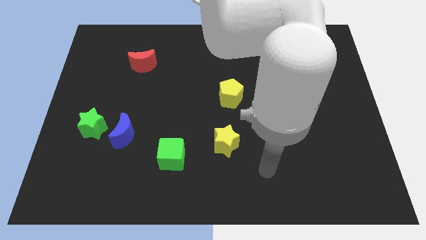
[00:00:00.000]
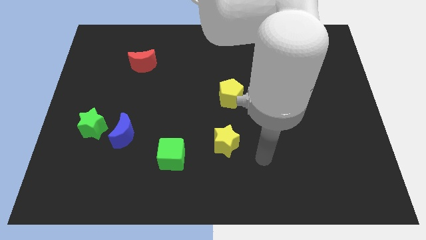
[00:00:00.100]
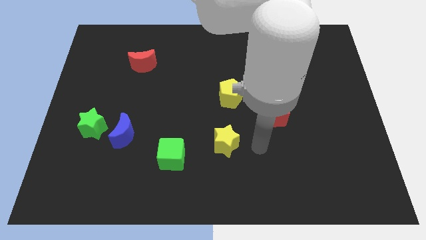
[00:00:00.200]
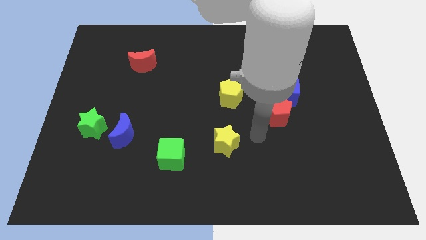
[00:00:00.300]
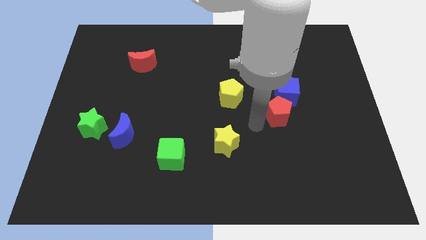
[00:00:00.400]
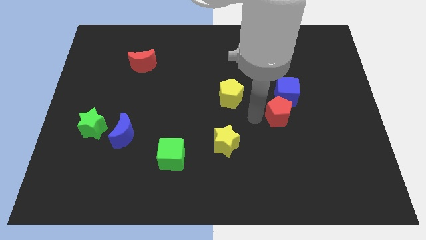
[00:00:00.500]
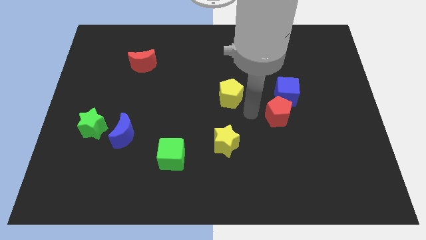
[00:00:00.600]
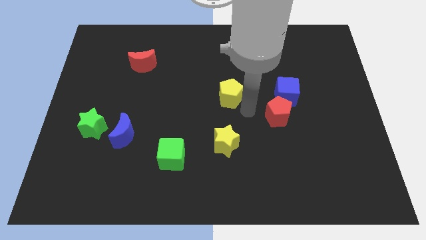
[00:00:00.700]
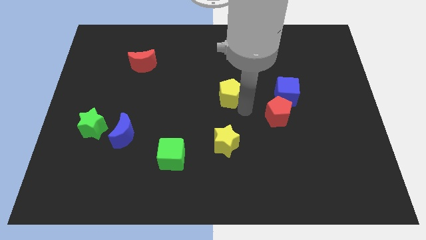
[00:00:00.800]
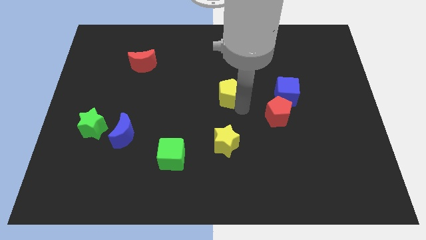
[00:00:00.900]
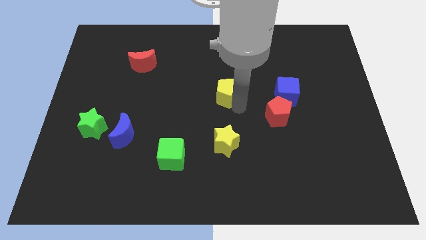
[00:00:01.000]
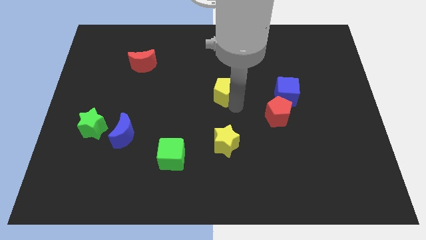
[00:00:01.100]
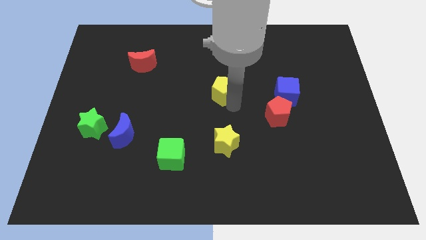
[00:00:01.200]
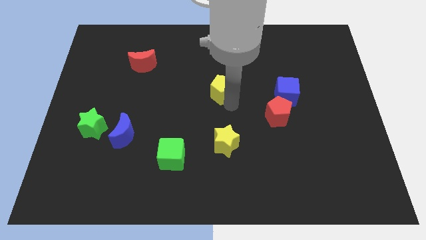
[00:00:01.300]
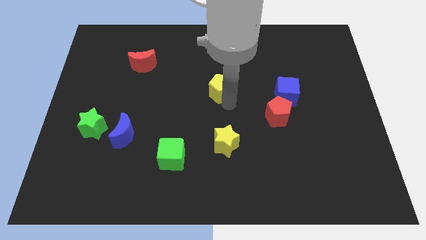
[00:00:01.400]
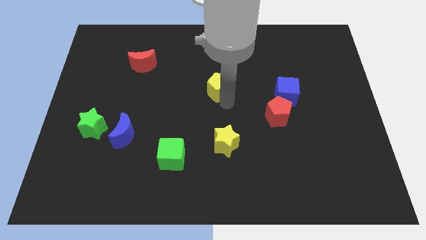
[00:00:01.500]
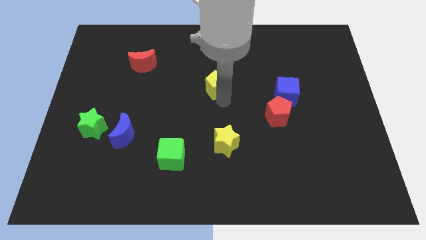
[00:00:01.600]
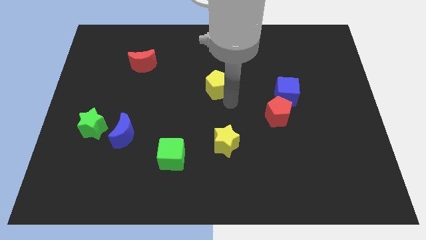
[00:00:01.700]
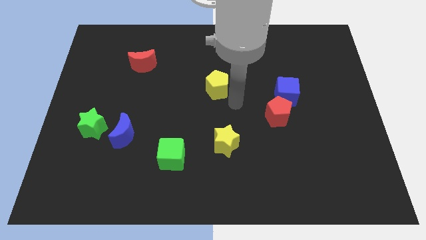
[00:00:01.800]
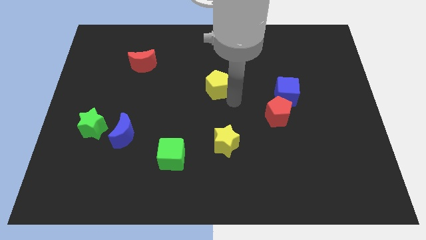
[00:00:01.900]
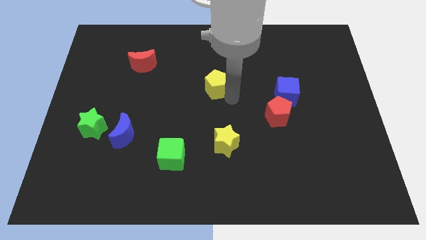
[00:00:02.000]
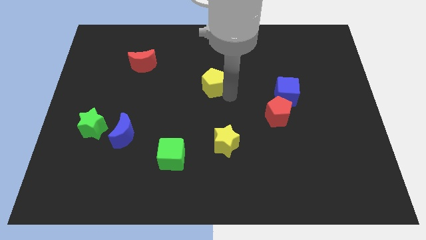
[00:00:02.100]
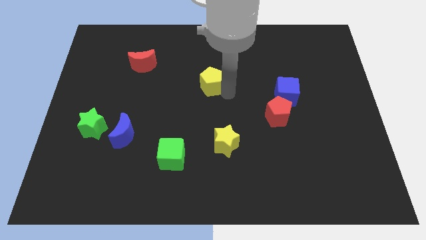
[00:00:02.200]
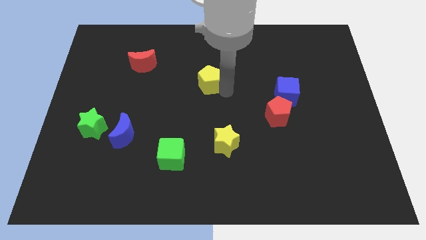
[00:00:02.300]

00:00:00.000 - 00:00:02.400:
slide the yellow pentagon diagonally up and to the left a bit

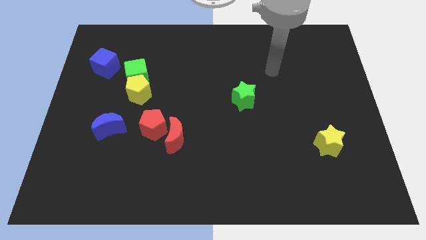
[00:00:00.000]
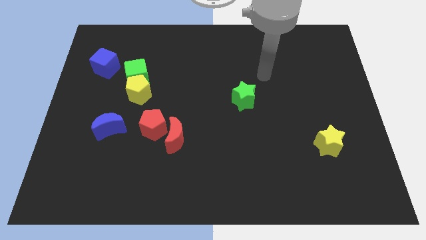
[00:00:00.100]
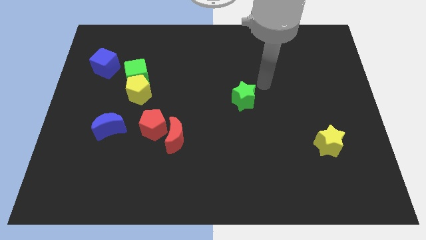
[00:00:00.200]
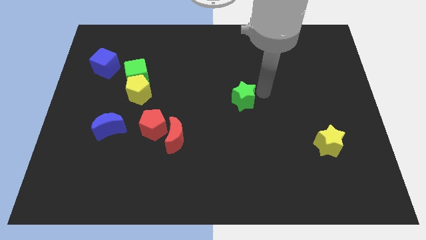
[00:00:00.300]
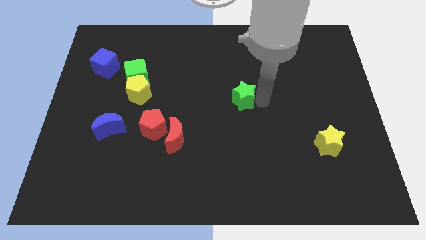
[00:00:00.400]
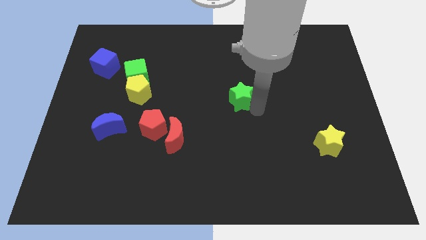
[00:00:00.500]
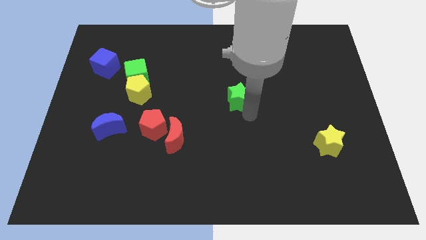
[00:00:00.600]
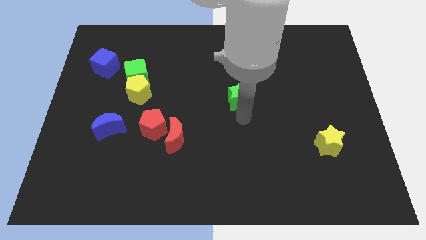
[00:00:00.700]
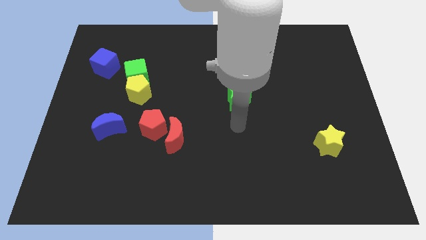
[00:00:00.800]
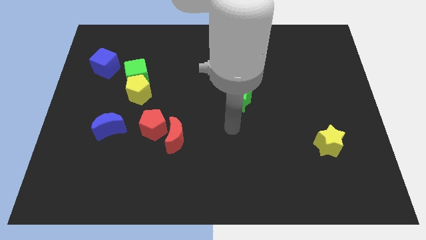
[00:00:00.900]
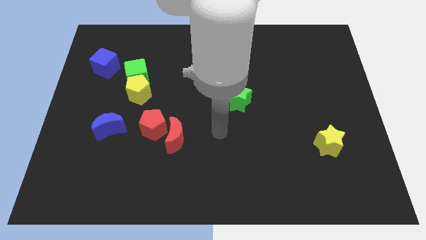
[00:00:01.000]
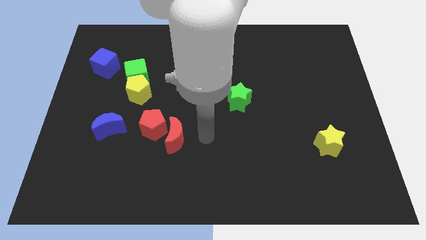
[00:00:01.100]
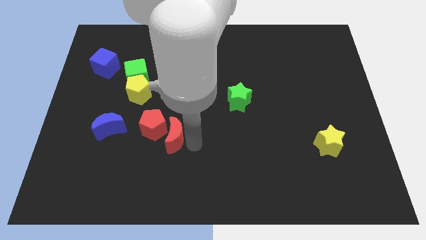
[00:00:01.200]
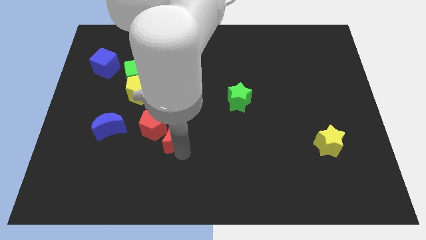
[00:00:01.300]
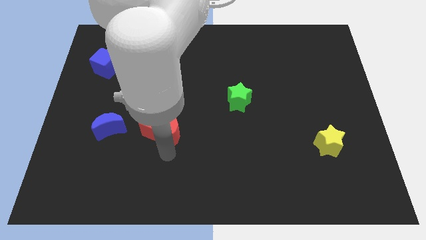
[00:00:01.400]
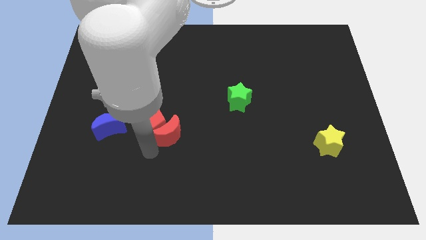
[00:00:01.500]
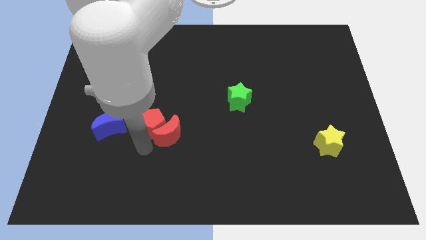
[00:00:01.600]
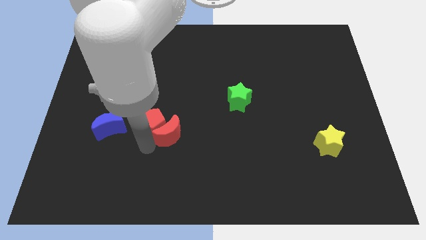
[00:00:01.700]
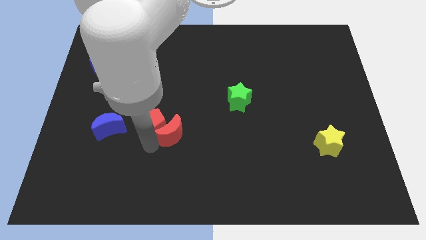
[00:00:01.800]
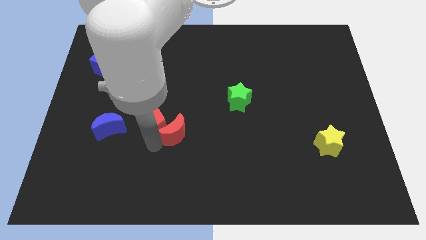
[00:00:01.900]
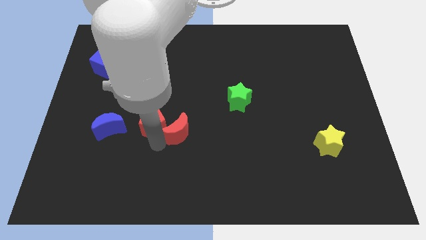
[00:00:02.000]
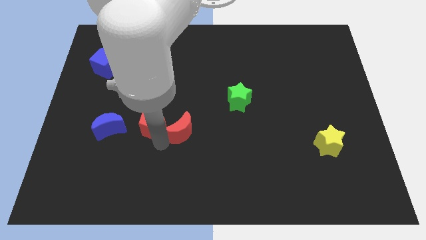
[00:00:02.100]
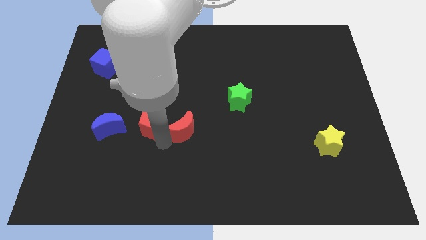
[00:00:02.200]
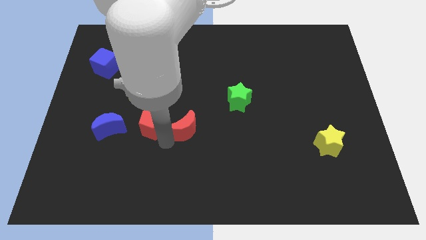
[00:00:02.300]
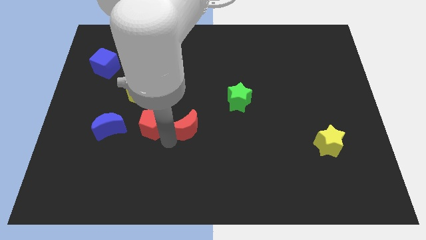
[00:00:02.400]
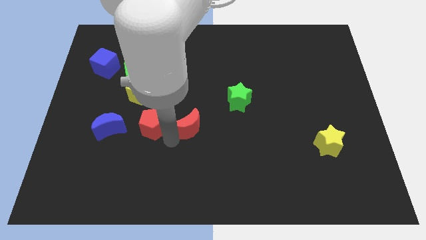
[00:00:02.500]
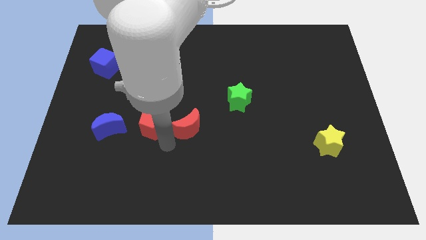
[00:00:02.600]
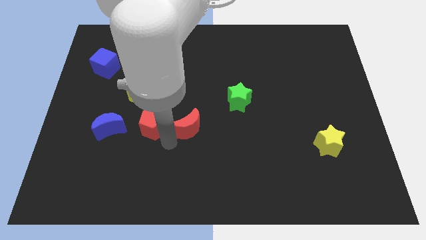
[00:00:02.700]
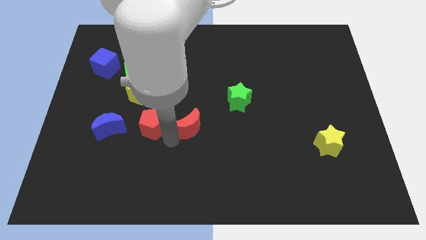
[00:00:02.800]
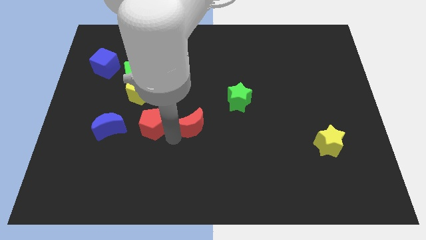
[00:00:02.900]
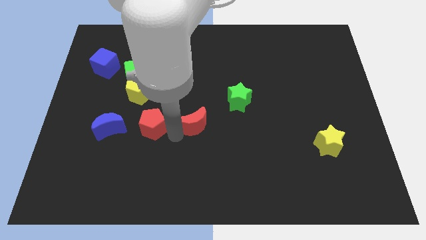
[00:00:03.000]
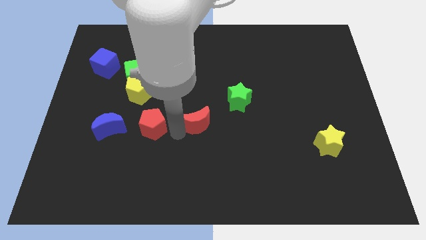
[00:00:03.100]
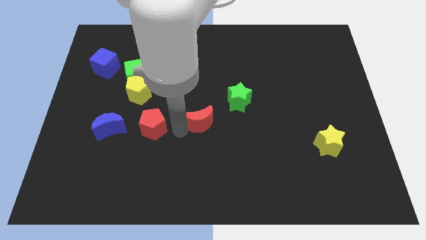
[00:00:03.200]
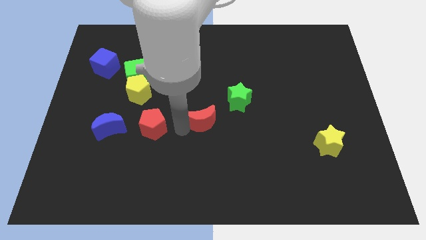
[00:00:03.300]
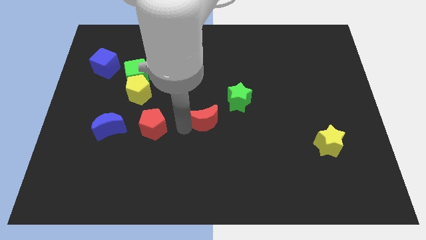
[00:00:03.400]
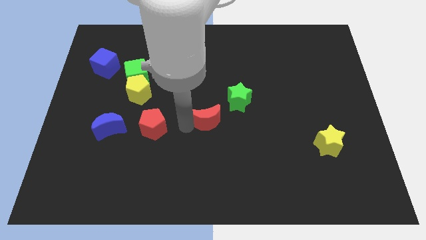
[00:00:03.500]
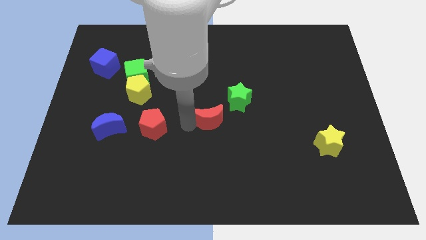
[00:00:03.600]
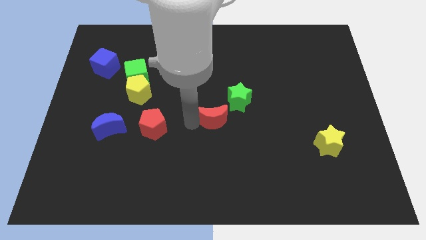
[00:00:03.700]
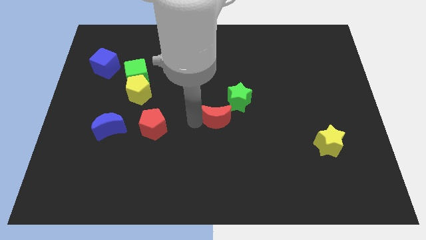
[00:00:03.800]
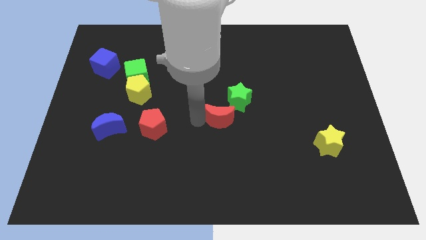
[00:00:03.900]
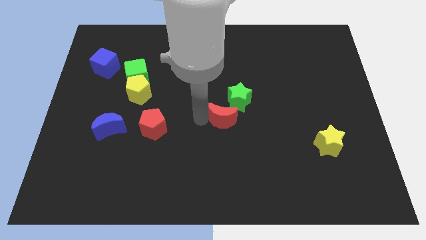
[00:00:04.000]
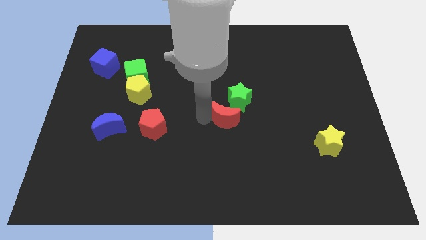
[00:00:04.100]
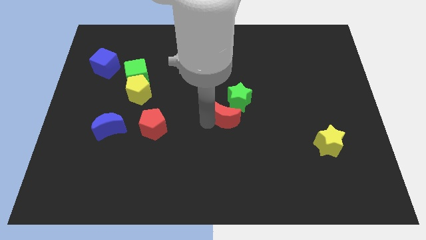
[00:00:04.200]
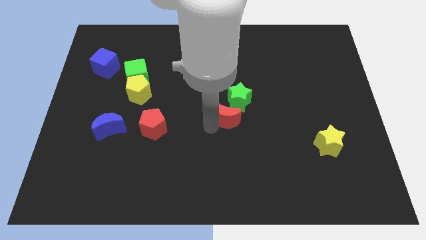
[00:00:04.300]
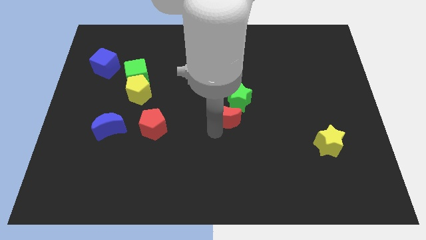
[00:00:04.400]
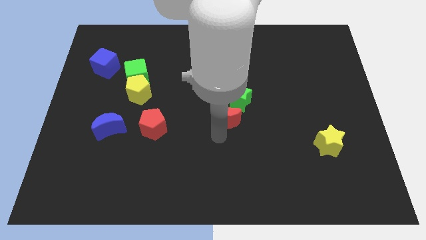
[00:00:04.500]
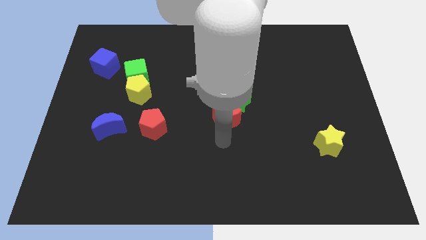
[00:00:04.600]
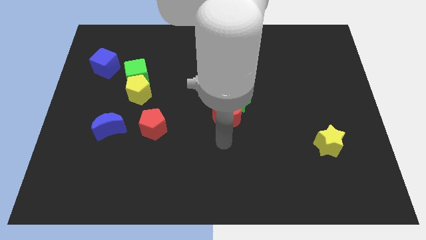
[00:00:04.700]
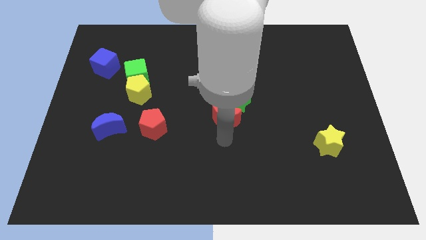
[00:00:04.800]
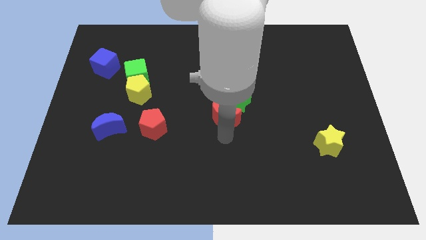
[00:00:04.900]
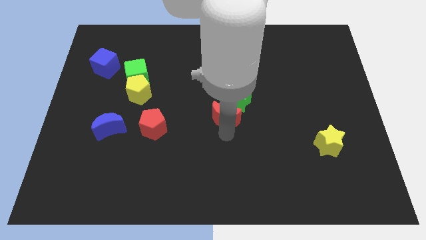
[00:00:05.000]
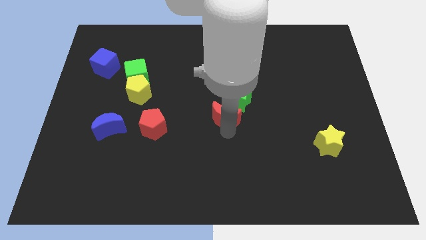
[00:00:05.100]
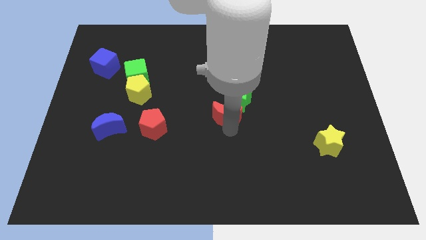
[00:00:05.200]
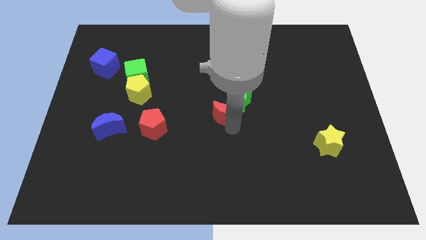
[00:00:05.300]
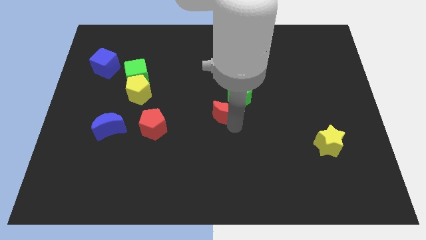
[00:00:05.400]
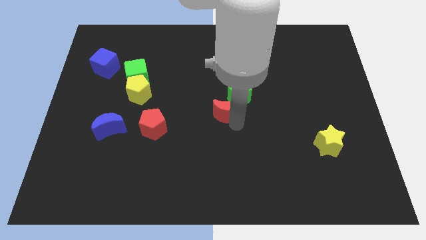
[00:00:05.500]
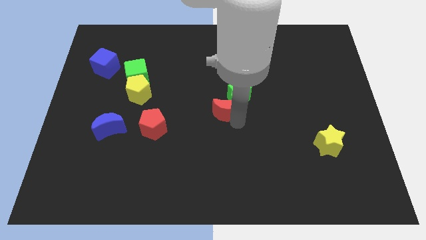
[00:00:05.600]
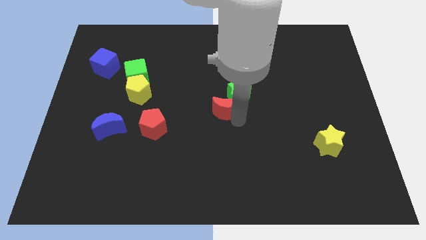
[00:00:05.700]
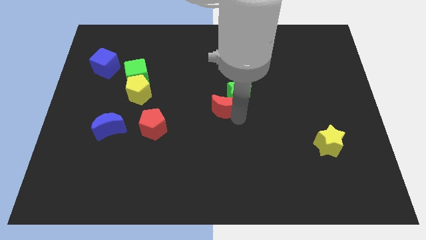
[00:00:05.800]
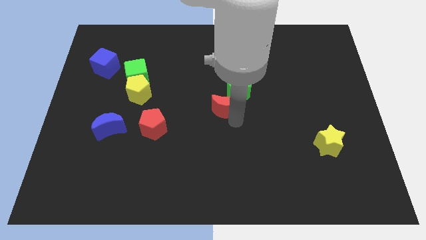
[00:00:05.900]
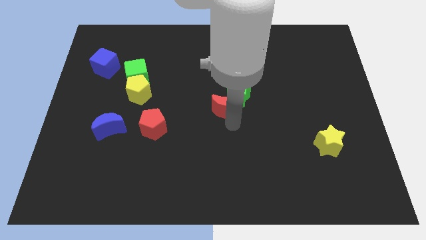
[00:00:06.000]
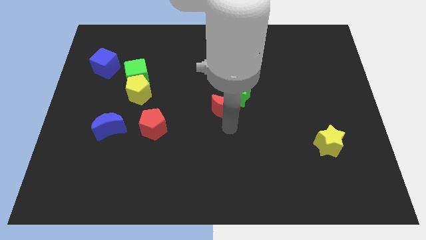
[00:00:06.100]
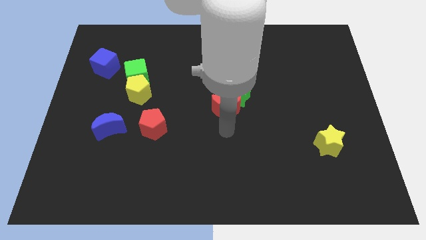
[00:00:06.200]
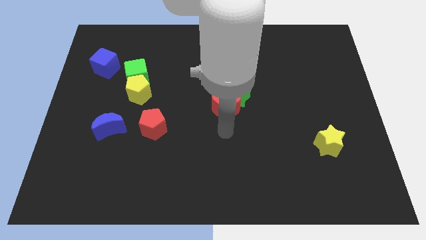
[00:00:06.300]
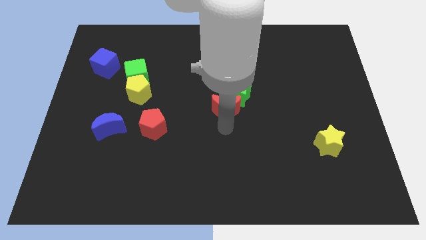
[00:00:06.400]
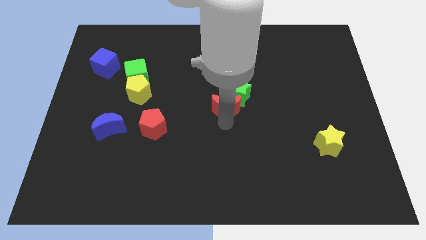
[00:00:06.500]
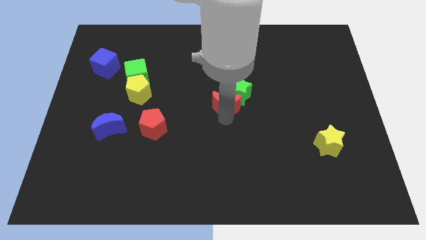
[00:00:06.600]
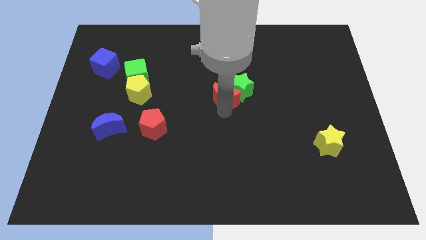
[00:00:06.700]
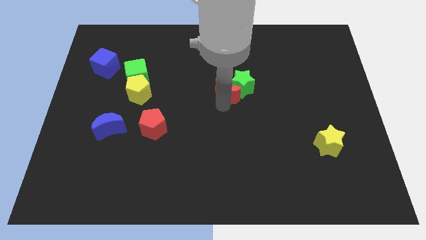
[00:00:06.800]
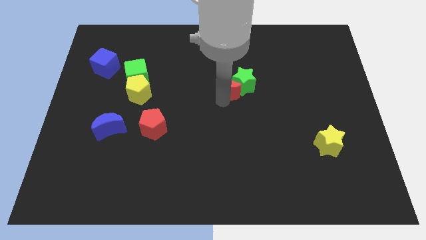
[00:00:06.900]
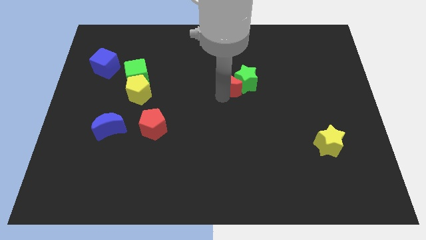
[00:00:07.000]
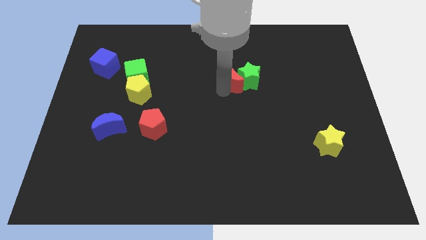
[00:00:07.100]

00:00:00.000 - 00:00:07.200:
push the red moon upwards and then right
